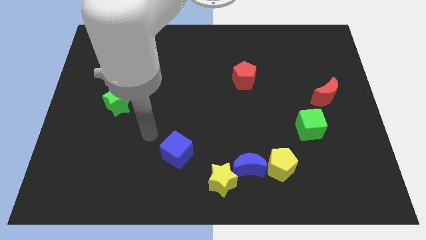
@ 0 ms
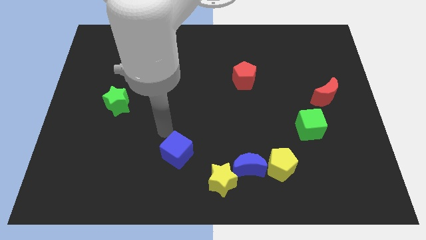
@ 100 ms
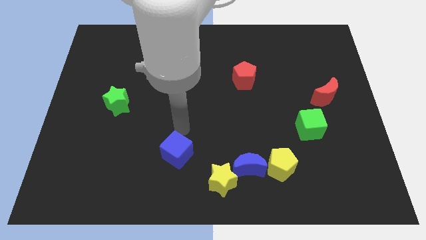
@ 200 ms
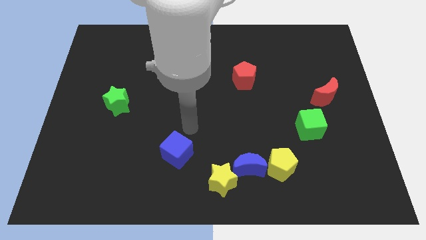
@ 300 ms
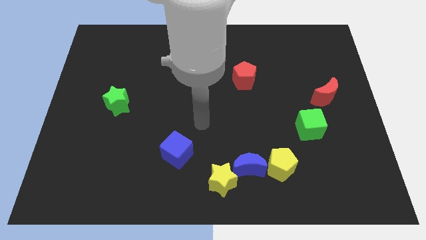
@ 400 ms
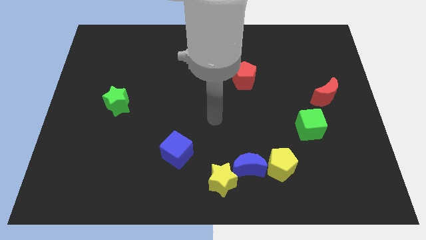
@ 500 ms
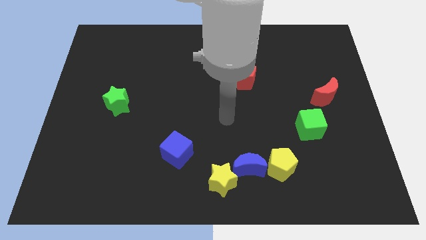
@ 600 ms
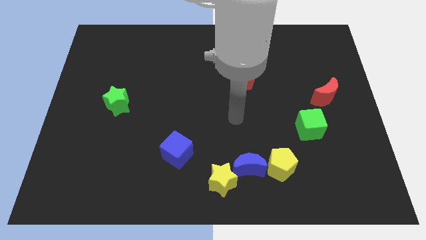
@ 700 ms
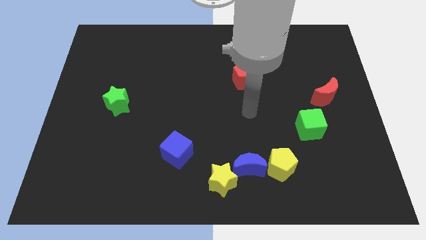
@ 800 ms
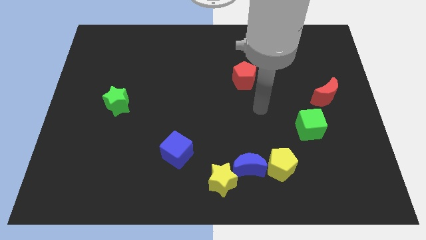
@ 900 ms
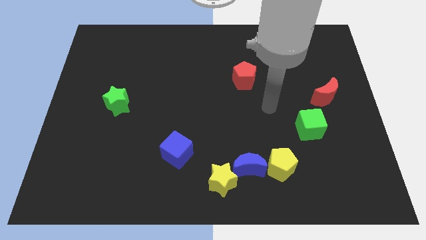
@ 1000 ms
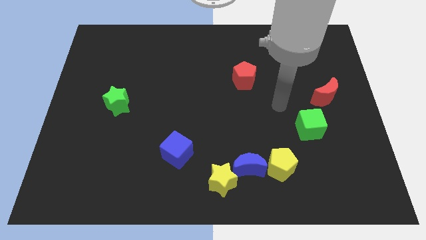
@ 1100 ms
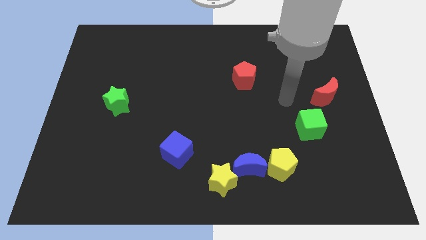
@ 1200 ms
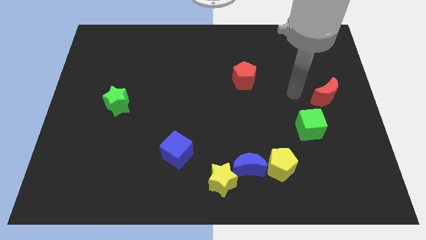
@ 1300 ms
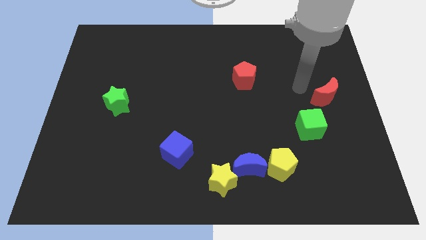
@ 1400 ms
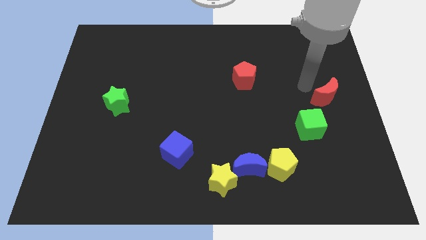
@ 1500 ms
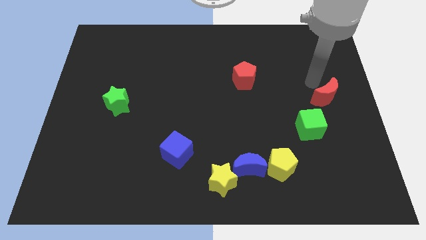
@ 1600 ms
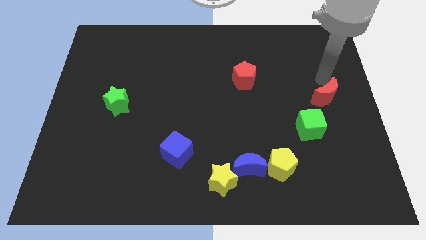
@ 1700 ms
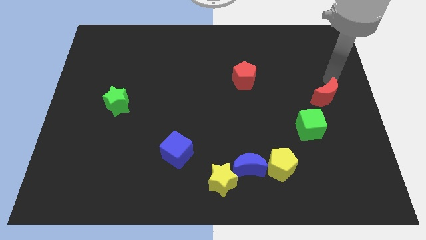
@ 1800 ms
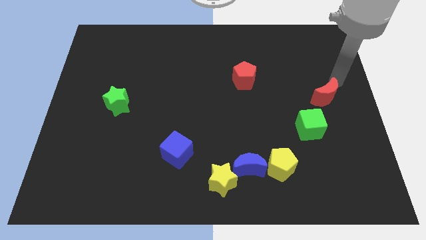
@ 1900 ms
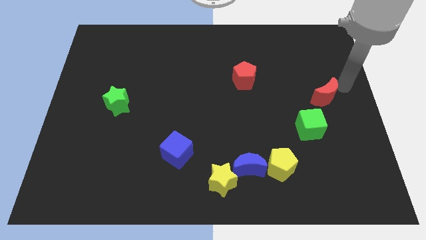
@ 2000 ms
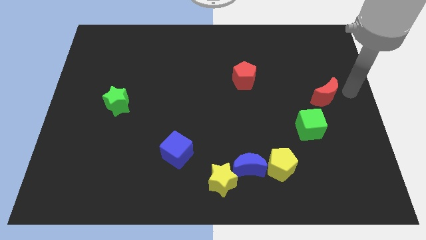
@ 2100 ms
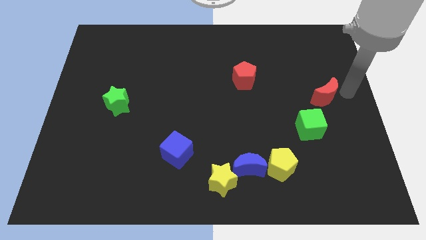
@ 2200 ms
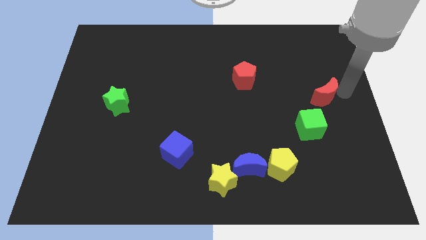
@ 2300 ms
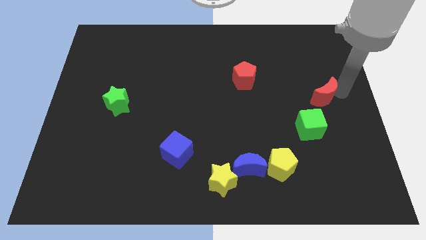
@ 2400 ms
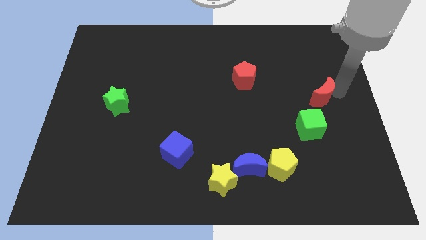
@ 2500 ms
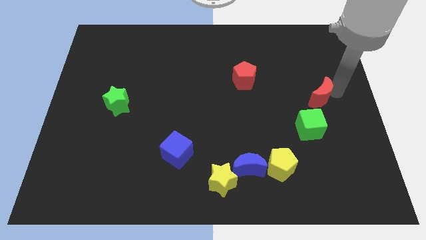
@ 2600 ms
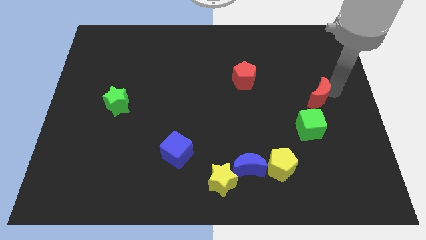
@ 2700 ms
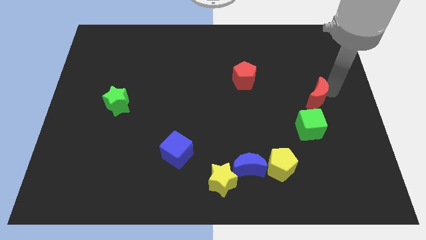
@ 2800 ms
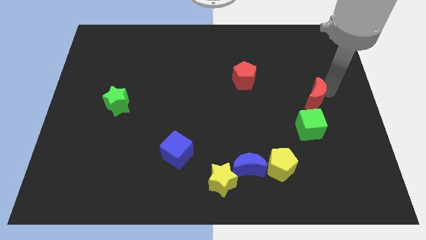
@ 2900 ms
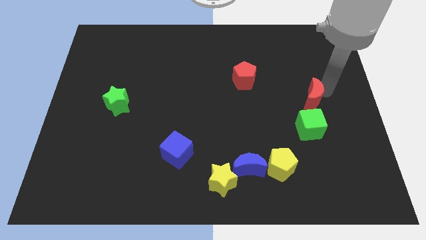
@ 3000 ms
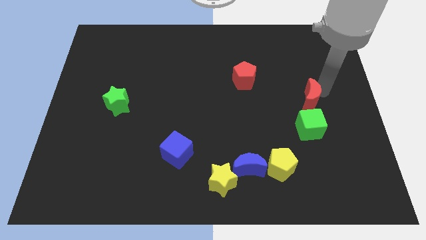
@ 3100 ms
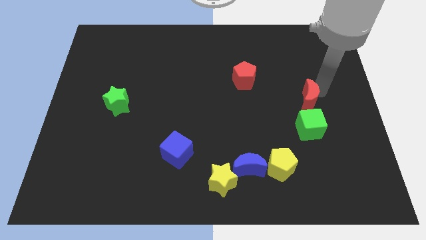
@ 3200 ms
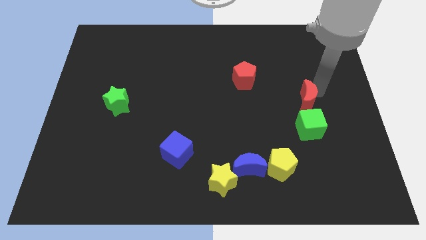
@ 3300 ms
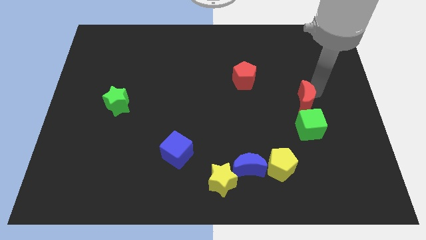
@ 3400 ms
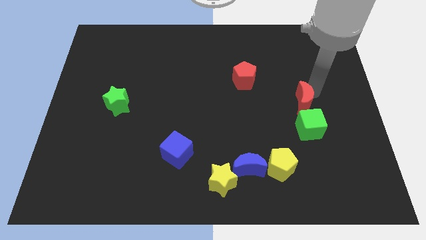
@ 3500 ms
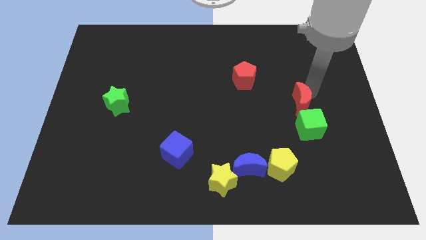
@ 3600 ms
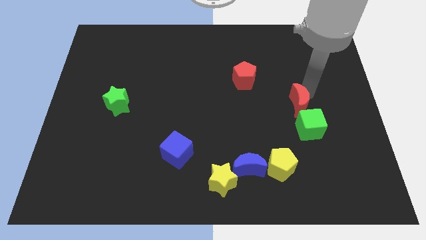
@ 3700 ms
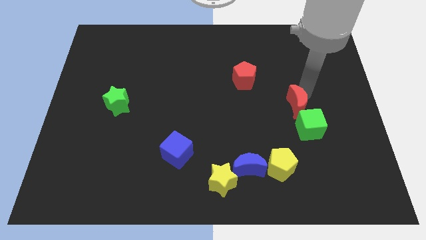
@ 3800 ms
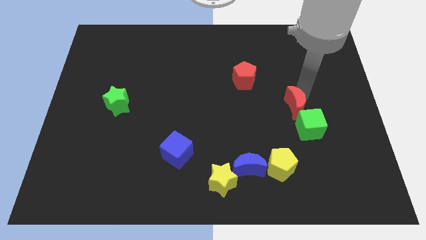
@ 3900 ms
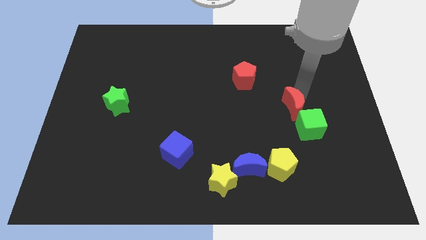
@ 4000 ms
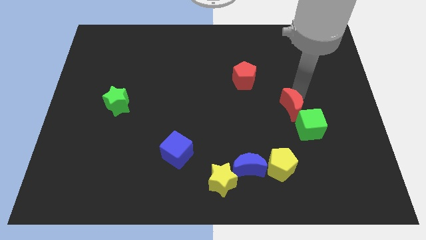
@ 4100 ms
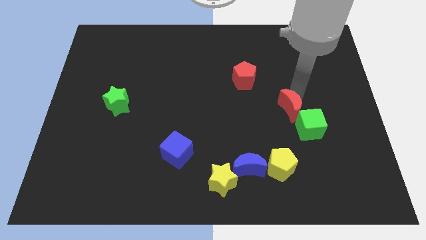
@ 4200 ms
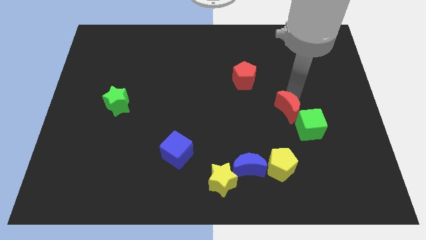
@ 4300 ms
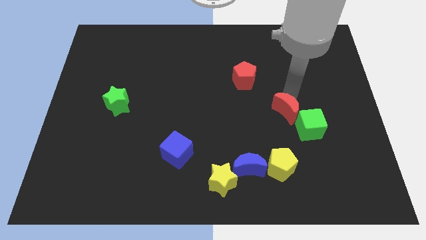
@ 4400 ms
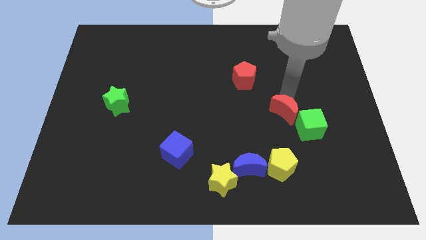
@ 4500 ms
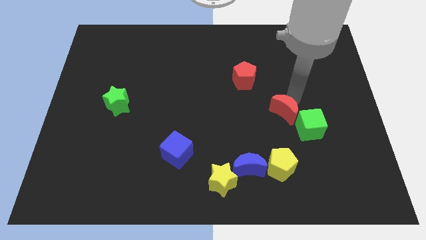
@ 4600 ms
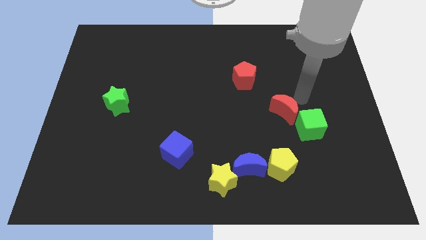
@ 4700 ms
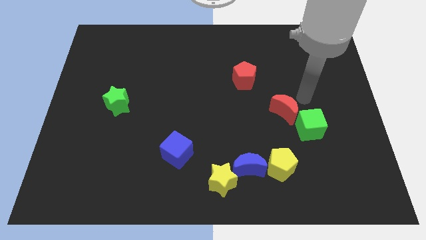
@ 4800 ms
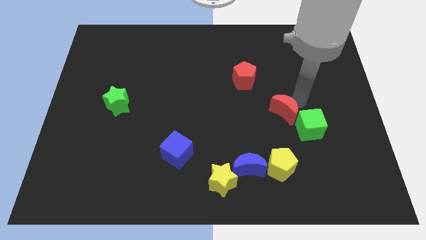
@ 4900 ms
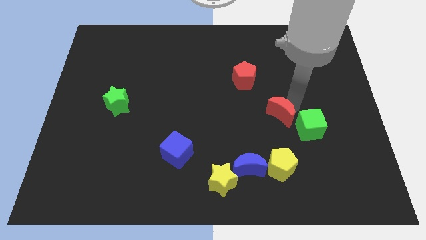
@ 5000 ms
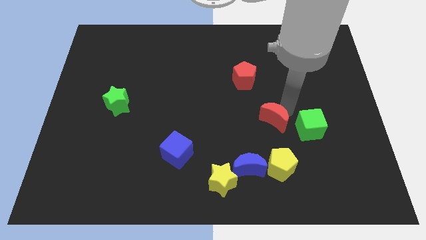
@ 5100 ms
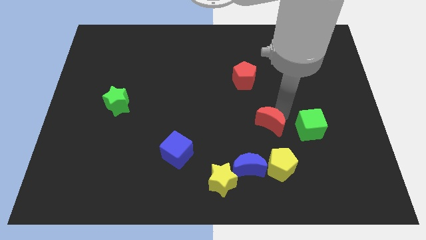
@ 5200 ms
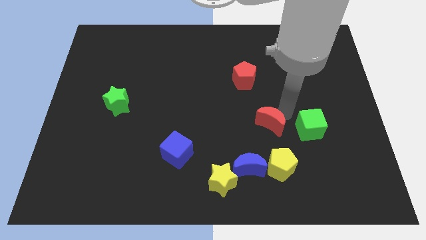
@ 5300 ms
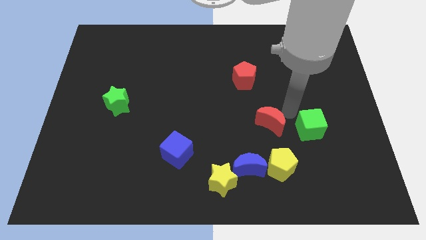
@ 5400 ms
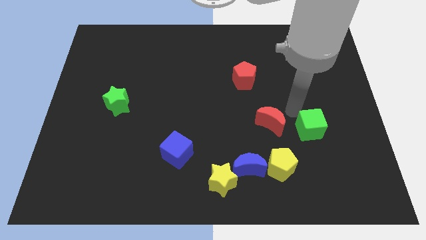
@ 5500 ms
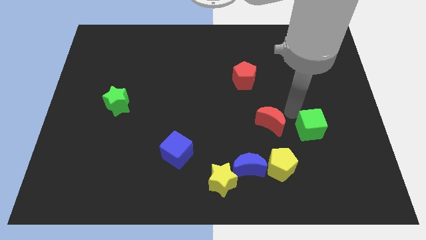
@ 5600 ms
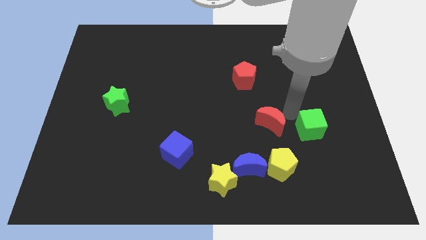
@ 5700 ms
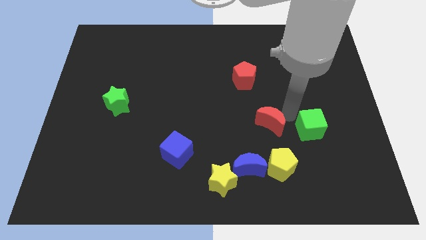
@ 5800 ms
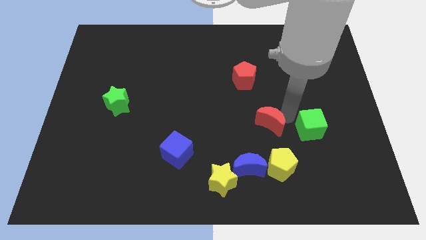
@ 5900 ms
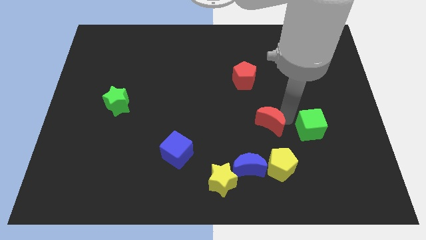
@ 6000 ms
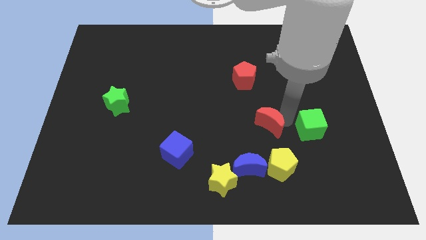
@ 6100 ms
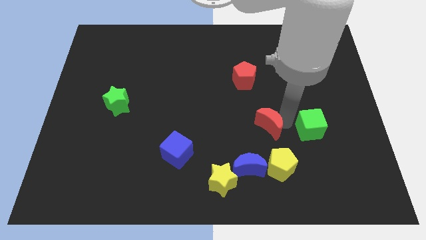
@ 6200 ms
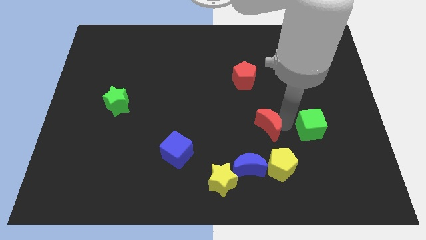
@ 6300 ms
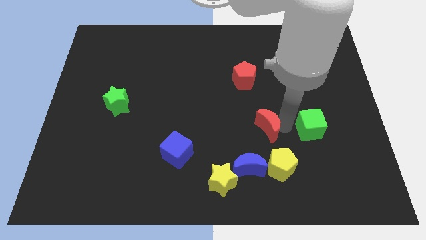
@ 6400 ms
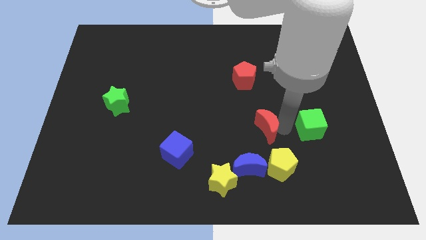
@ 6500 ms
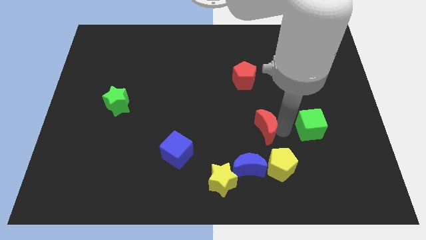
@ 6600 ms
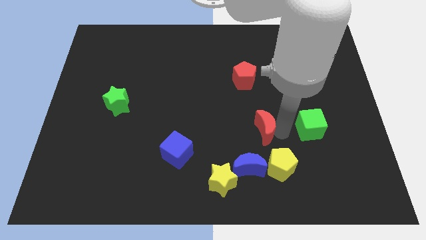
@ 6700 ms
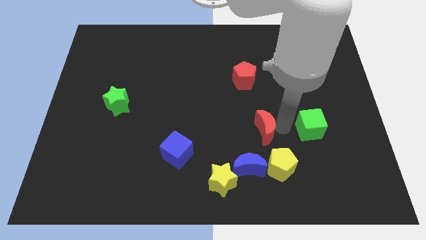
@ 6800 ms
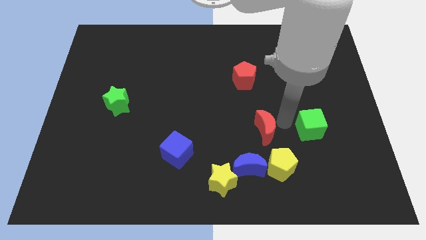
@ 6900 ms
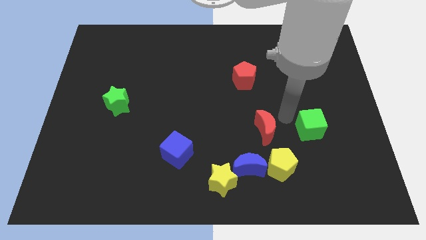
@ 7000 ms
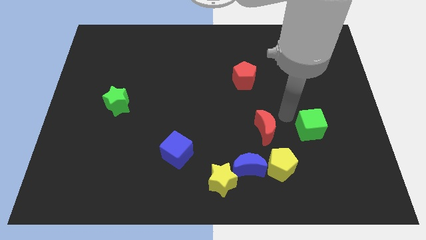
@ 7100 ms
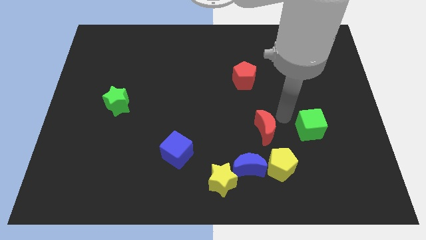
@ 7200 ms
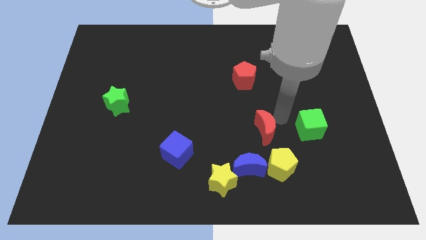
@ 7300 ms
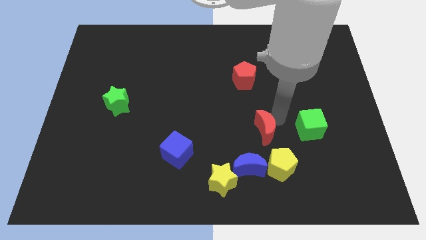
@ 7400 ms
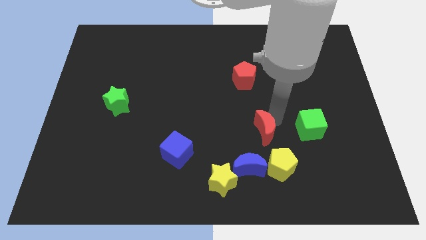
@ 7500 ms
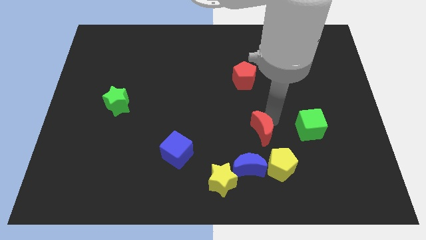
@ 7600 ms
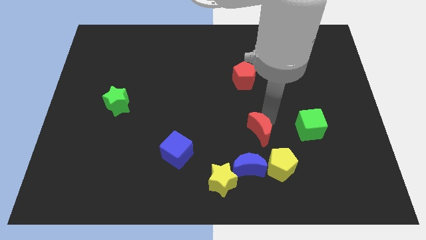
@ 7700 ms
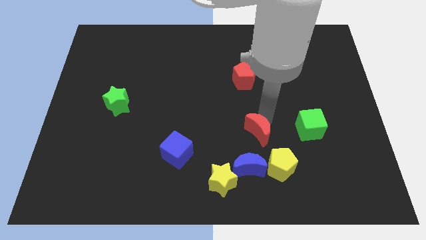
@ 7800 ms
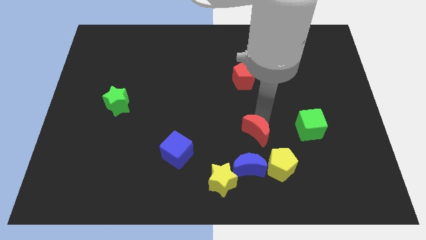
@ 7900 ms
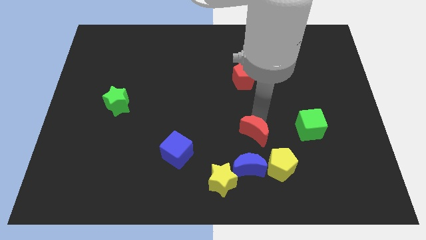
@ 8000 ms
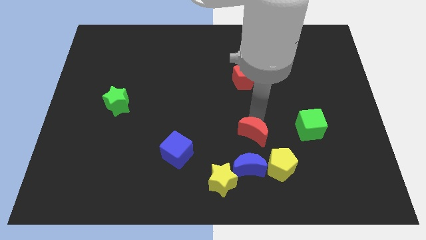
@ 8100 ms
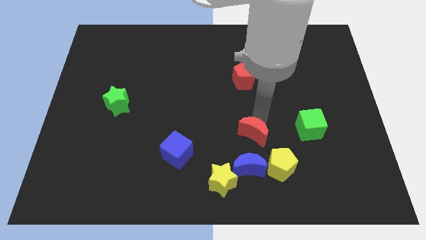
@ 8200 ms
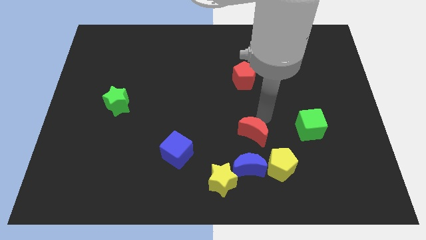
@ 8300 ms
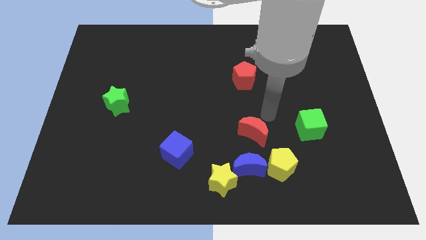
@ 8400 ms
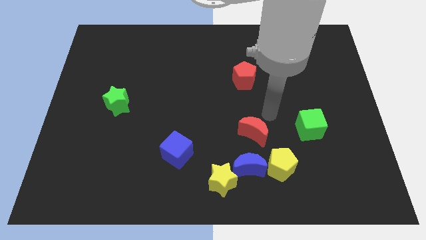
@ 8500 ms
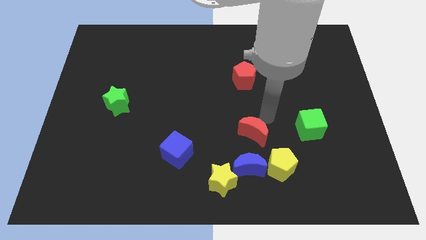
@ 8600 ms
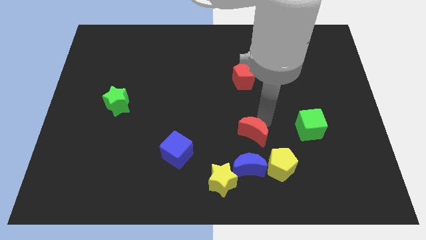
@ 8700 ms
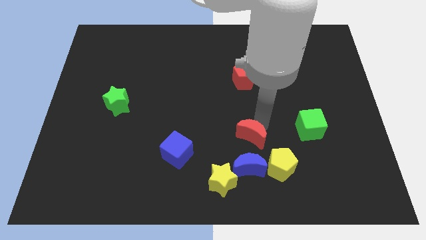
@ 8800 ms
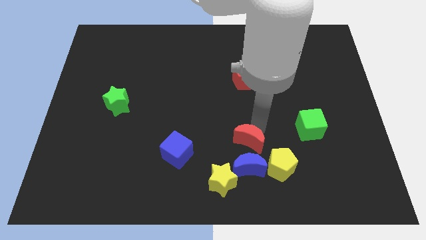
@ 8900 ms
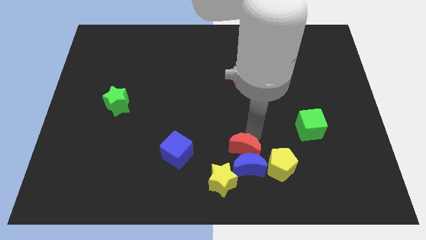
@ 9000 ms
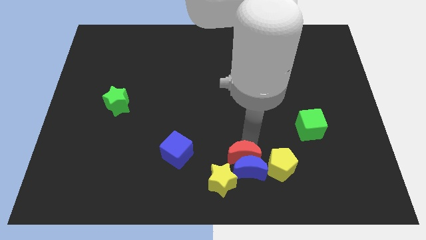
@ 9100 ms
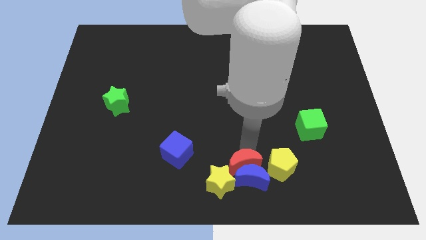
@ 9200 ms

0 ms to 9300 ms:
move the red moon towards the yellow star
